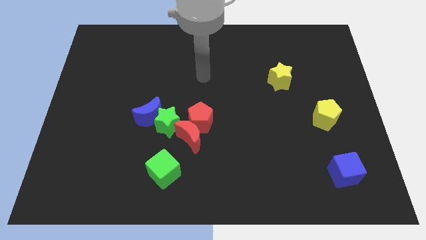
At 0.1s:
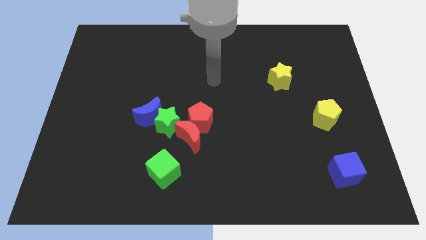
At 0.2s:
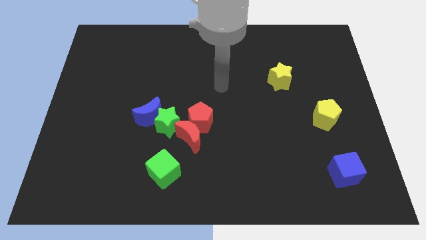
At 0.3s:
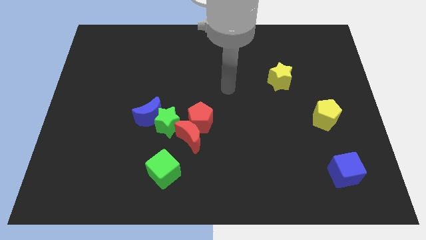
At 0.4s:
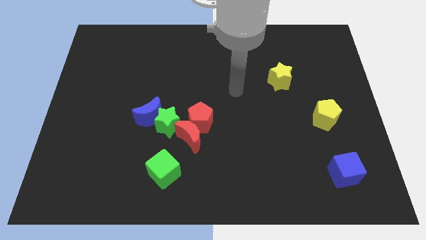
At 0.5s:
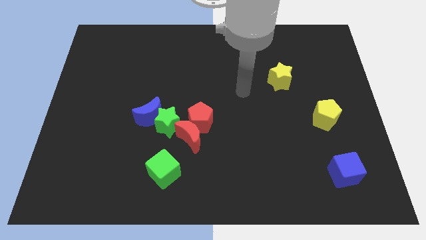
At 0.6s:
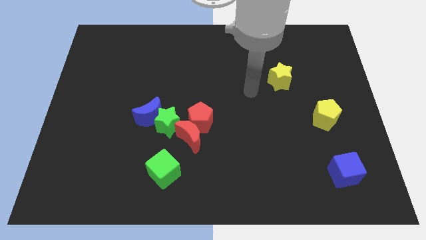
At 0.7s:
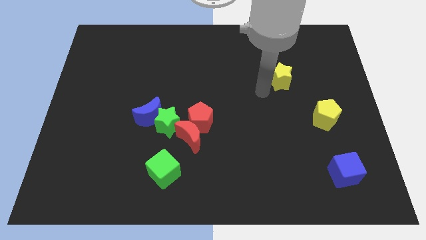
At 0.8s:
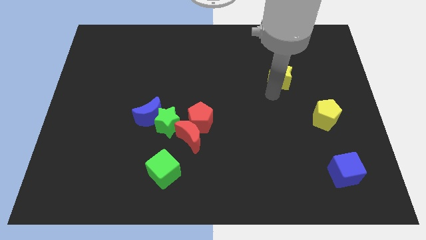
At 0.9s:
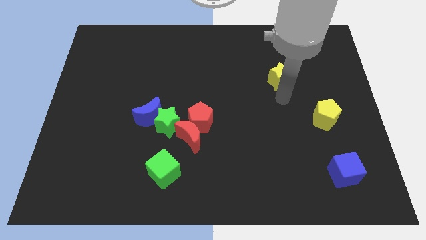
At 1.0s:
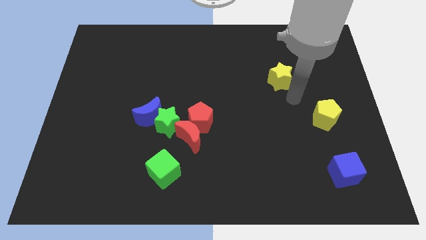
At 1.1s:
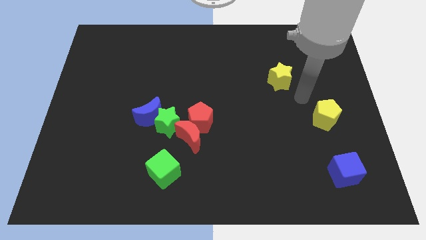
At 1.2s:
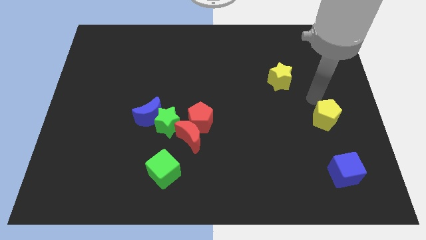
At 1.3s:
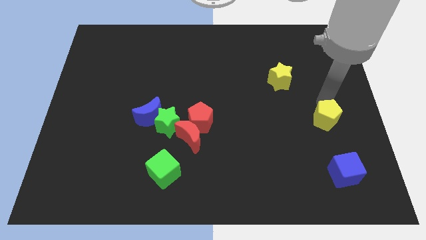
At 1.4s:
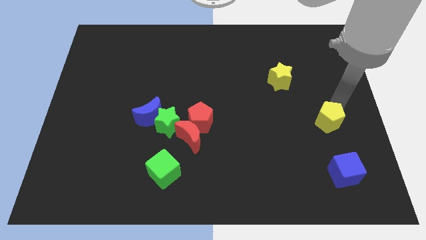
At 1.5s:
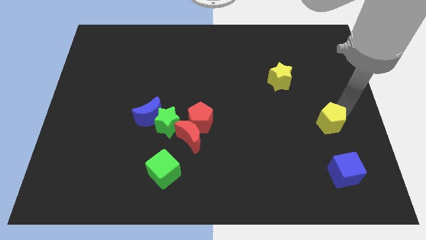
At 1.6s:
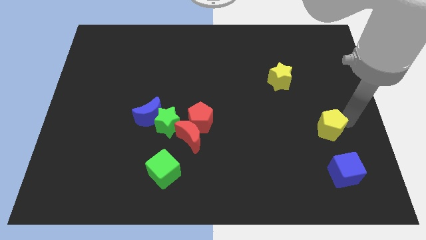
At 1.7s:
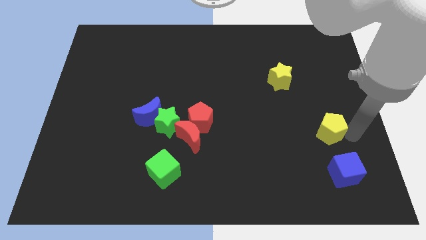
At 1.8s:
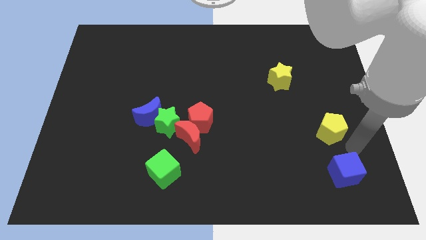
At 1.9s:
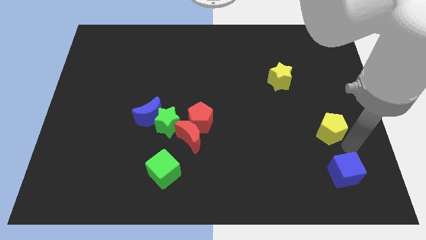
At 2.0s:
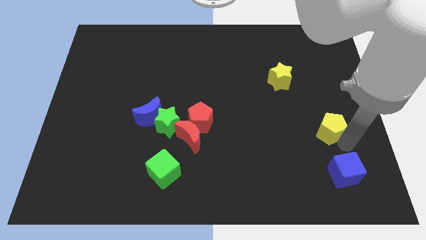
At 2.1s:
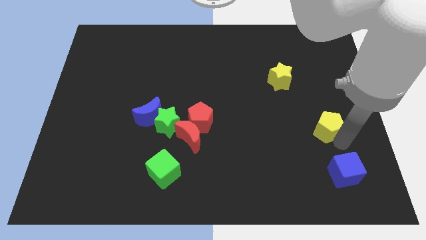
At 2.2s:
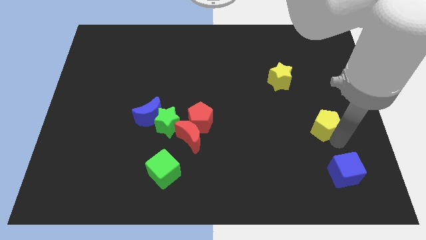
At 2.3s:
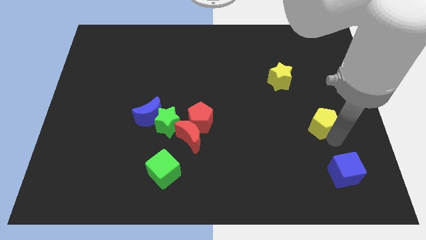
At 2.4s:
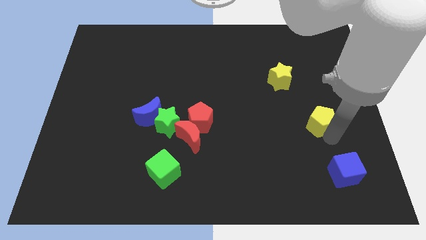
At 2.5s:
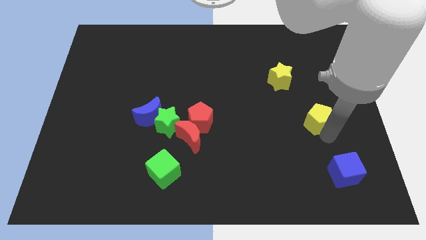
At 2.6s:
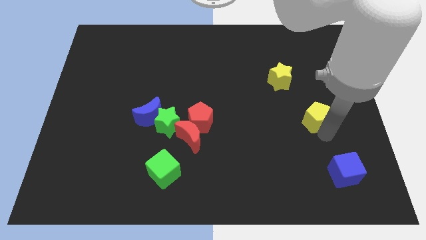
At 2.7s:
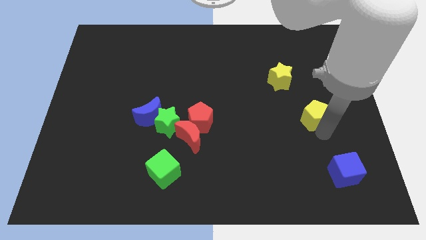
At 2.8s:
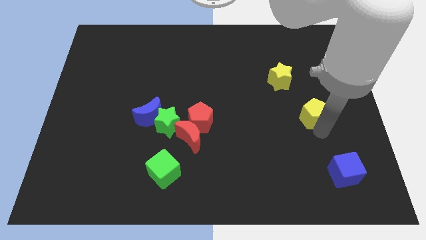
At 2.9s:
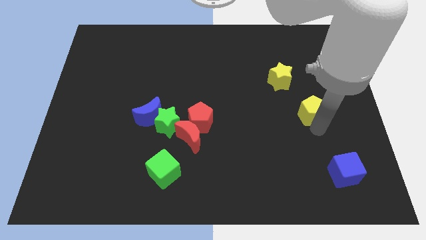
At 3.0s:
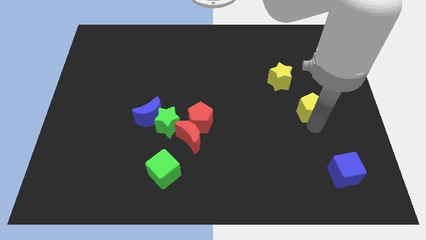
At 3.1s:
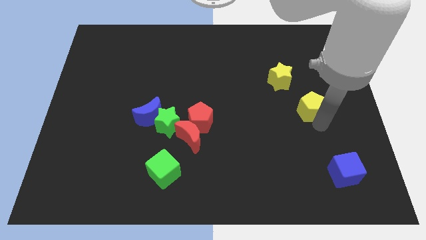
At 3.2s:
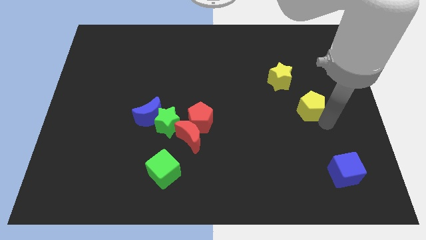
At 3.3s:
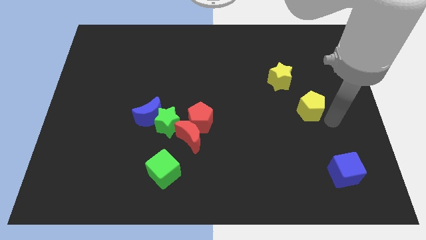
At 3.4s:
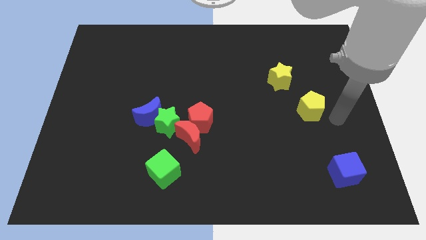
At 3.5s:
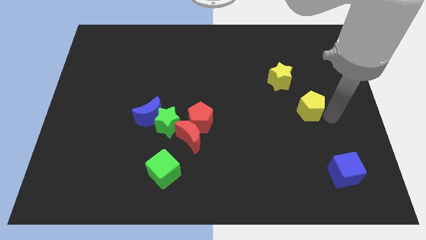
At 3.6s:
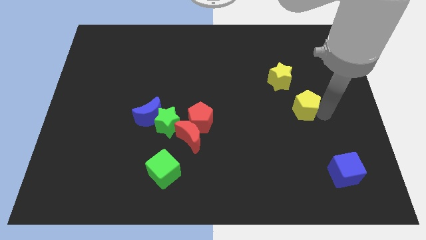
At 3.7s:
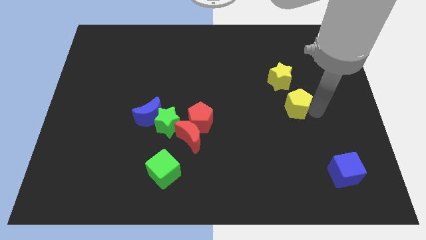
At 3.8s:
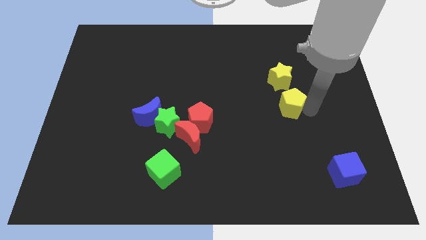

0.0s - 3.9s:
slightly push the yellow pentagon up and then to the left

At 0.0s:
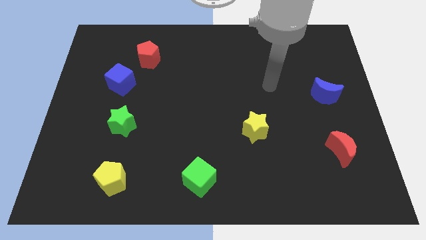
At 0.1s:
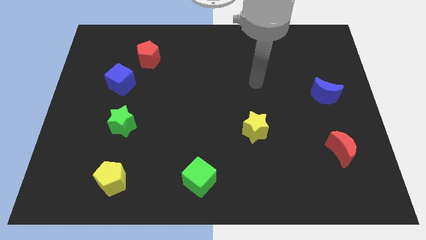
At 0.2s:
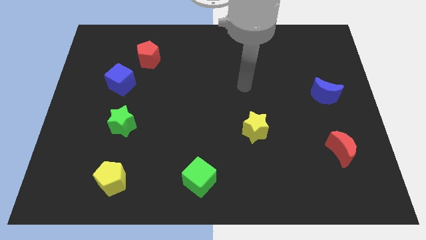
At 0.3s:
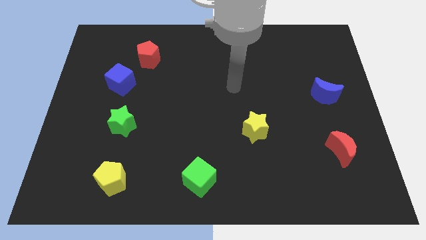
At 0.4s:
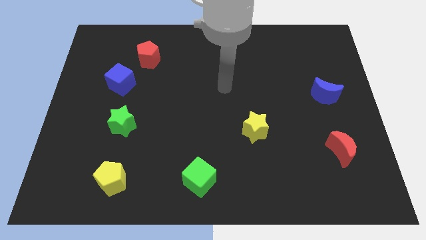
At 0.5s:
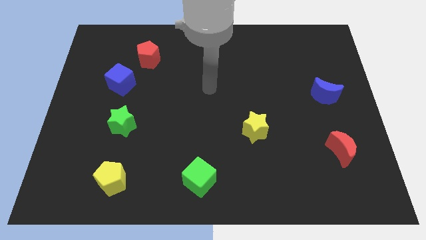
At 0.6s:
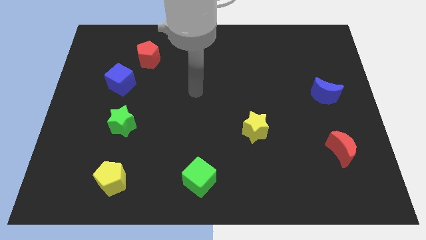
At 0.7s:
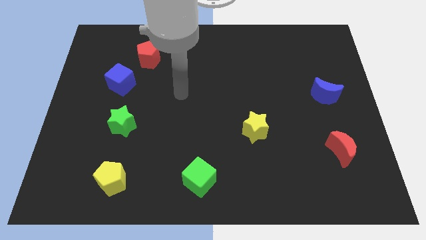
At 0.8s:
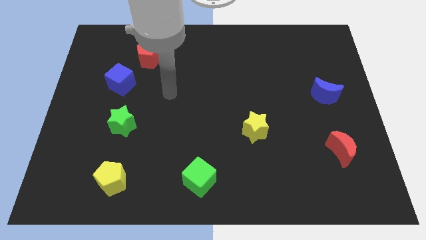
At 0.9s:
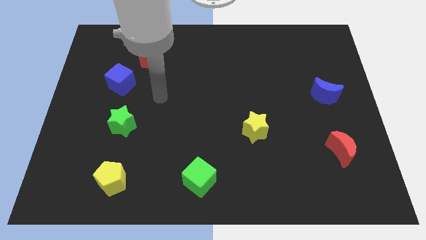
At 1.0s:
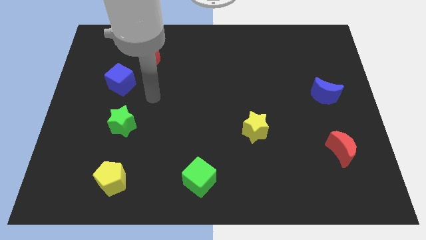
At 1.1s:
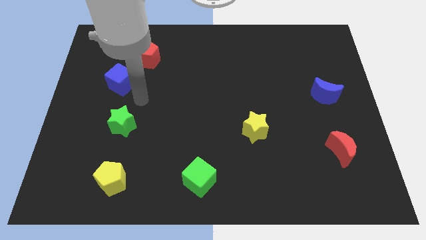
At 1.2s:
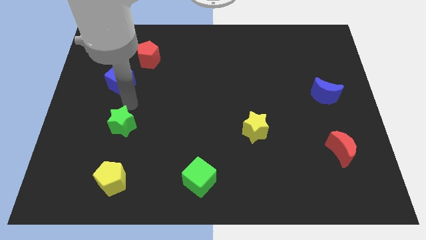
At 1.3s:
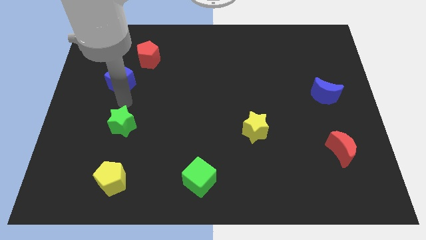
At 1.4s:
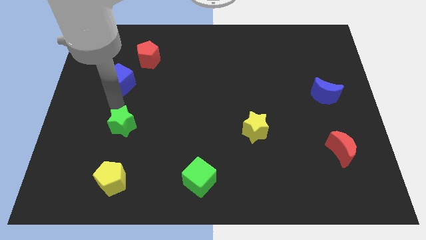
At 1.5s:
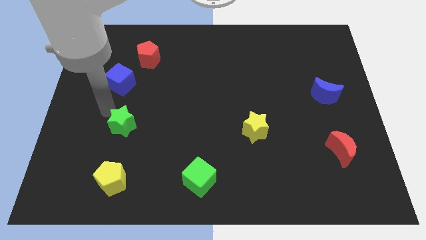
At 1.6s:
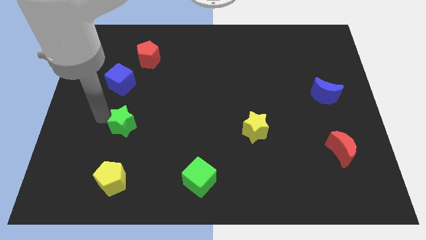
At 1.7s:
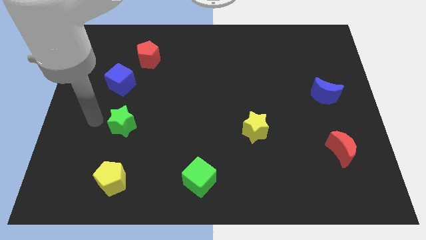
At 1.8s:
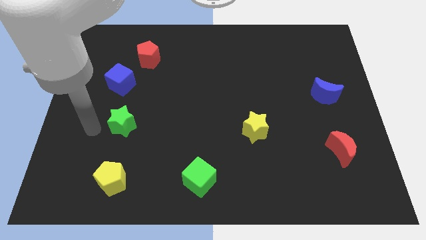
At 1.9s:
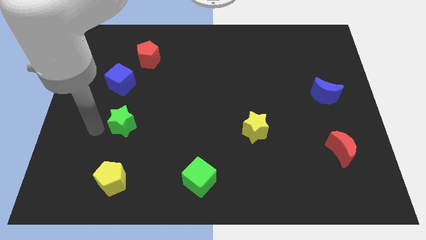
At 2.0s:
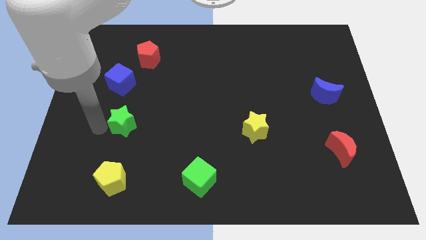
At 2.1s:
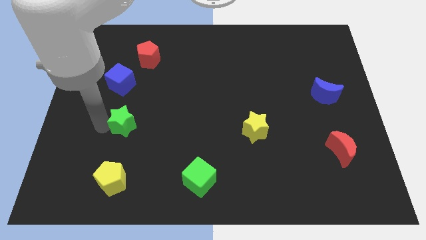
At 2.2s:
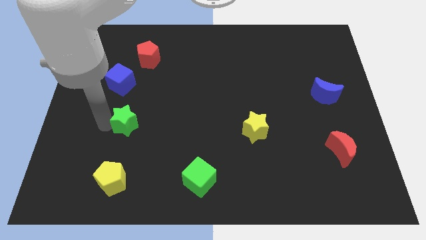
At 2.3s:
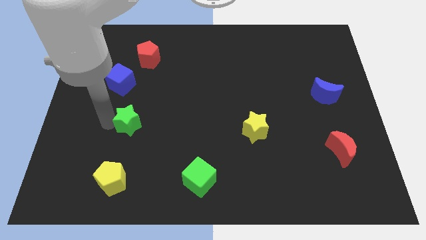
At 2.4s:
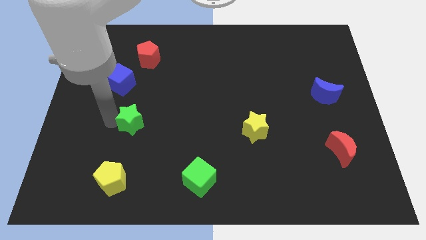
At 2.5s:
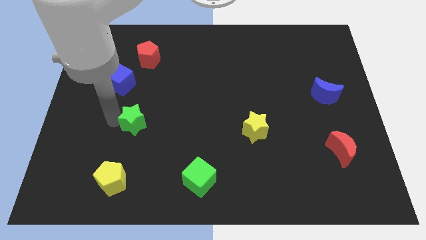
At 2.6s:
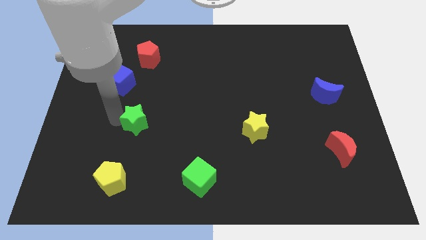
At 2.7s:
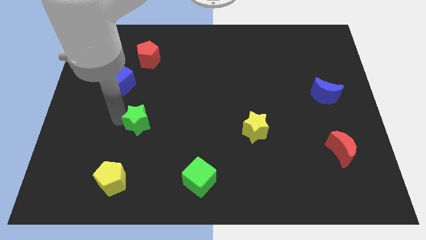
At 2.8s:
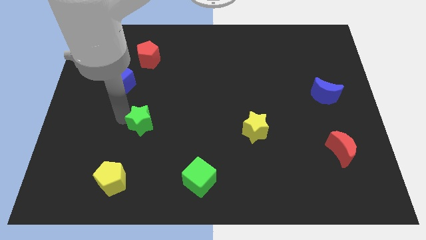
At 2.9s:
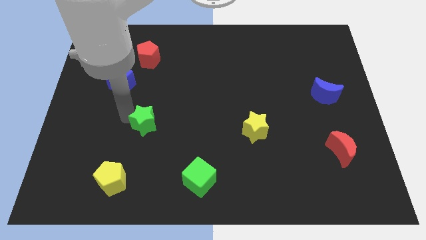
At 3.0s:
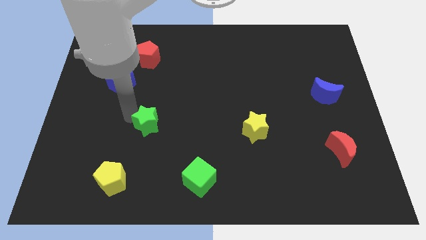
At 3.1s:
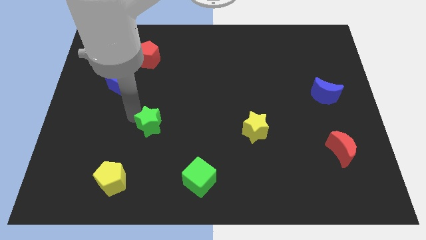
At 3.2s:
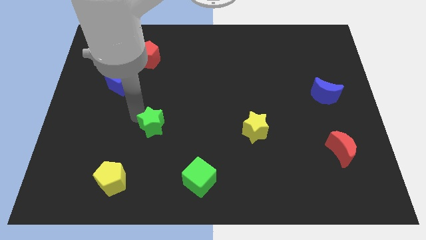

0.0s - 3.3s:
push the green star right a little

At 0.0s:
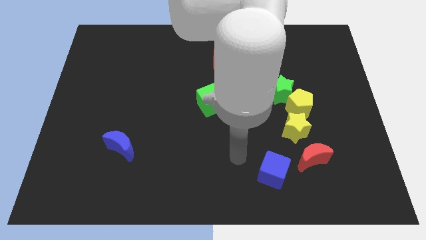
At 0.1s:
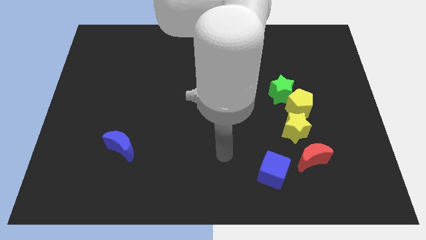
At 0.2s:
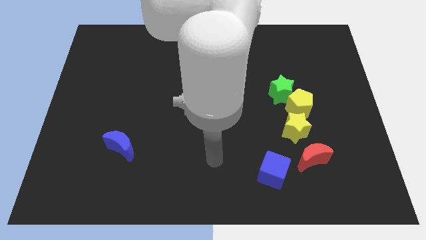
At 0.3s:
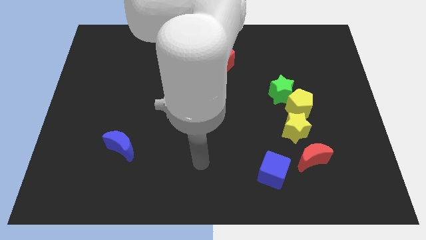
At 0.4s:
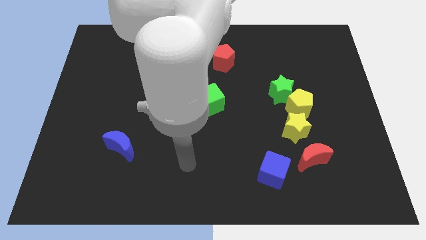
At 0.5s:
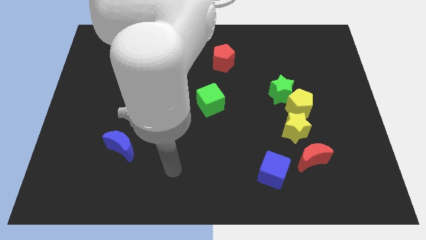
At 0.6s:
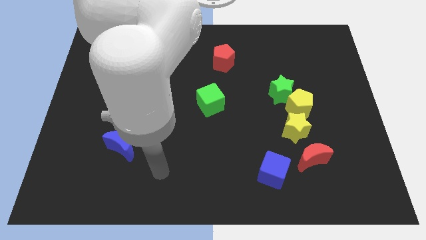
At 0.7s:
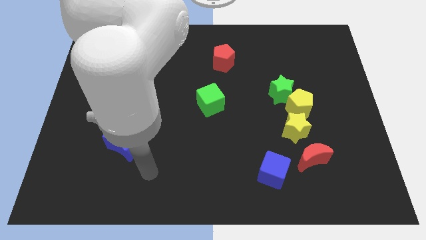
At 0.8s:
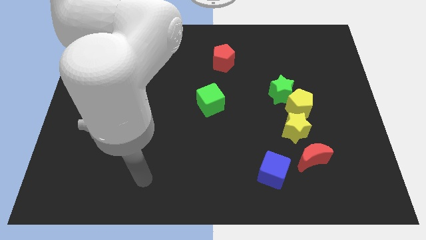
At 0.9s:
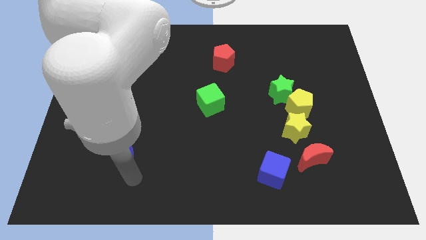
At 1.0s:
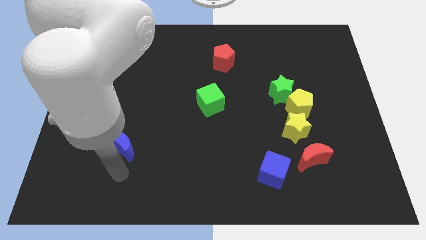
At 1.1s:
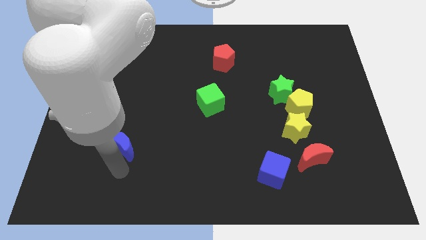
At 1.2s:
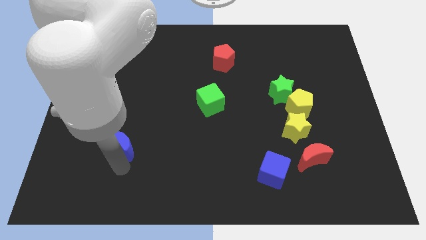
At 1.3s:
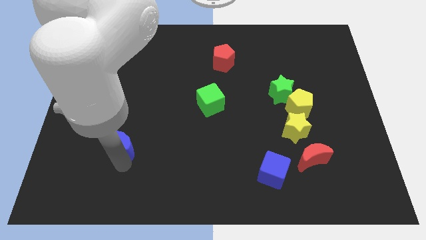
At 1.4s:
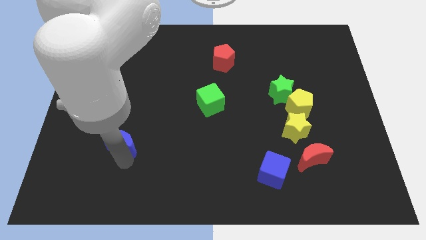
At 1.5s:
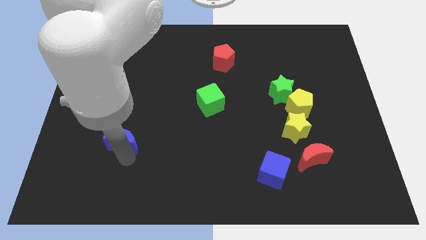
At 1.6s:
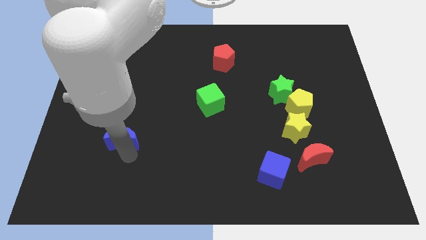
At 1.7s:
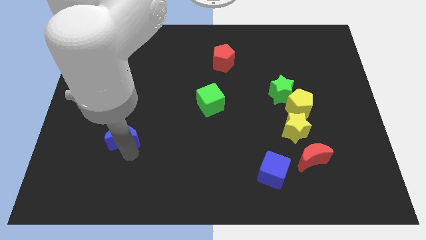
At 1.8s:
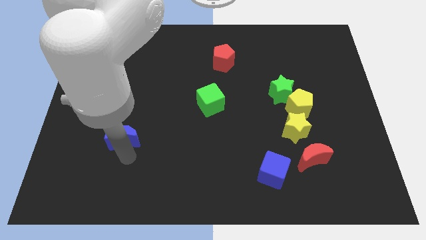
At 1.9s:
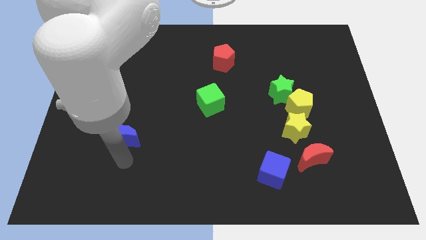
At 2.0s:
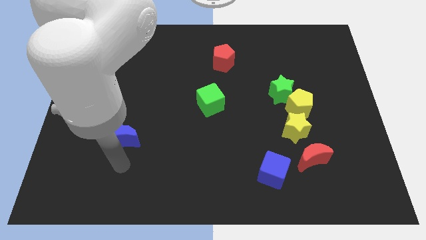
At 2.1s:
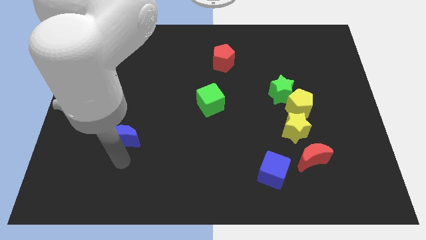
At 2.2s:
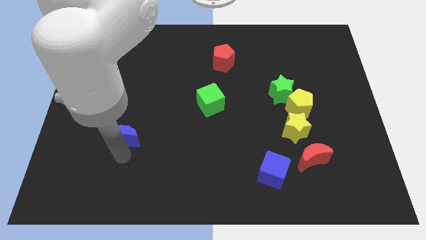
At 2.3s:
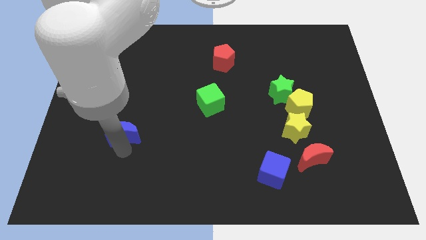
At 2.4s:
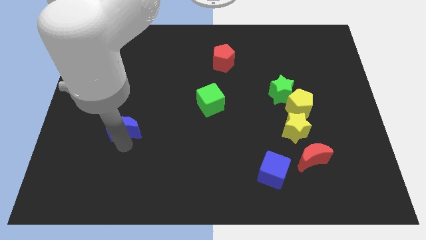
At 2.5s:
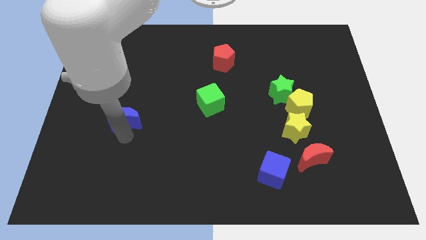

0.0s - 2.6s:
slide the blue moon upwards slightly
